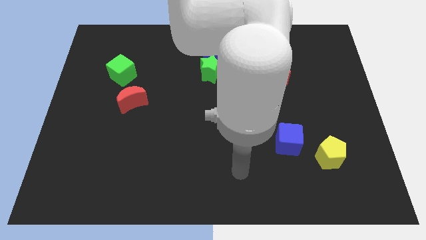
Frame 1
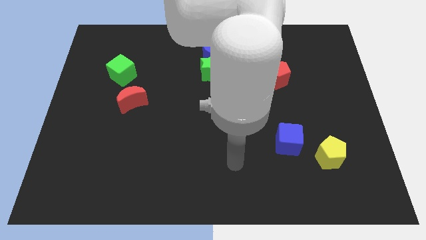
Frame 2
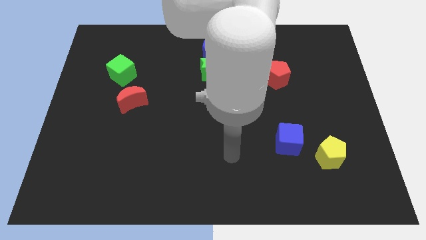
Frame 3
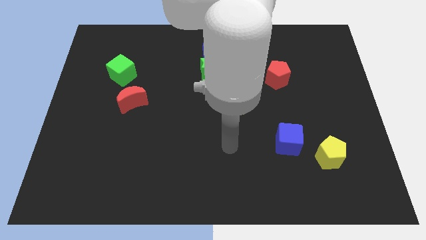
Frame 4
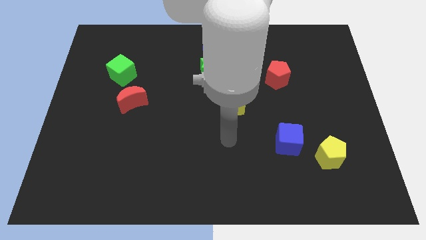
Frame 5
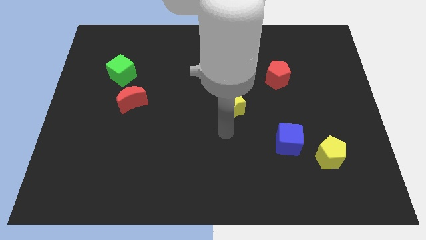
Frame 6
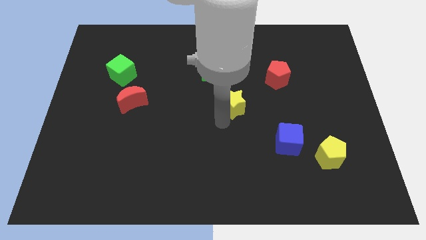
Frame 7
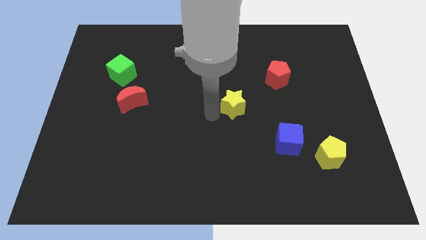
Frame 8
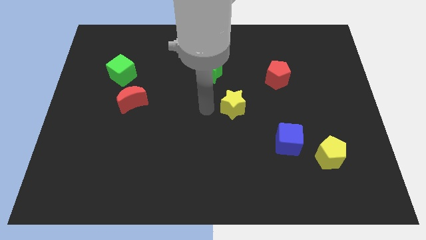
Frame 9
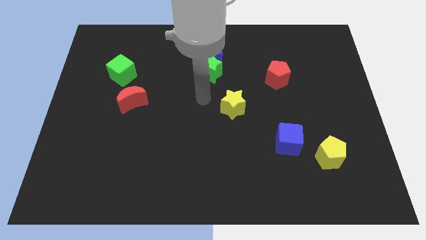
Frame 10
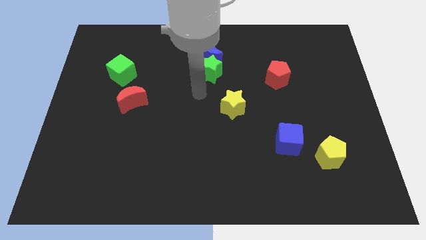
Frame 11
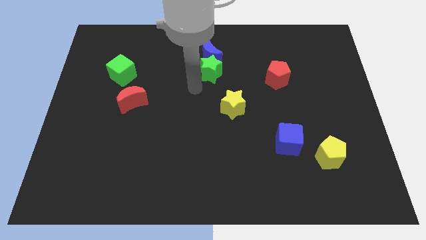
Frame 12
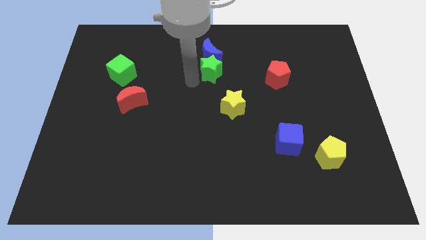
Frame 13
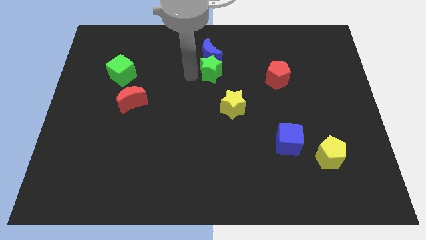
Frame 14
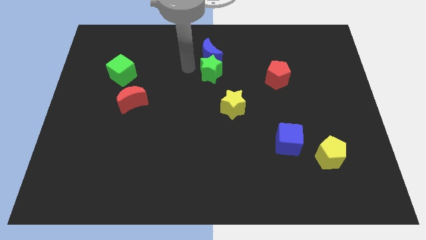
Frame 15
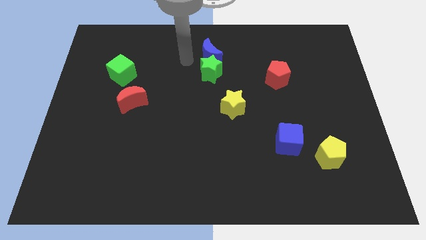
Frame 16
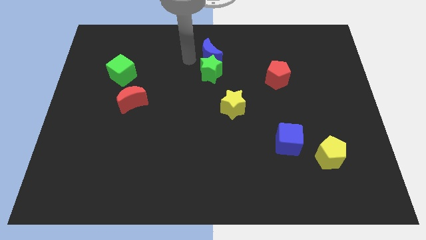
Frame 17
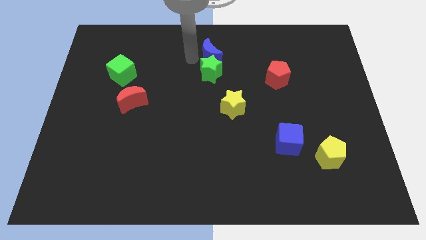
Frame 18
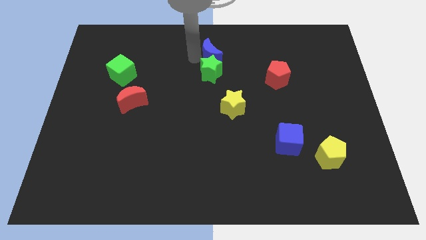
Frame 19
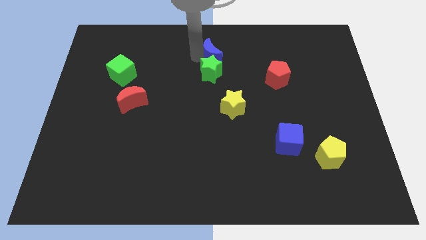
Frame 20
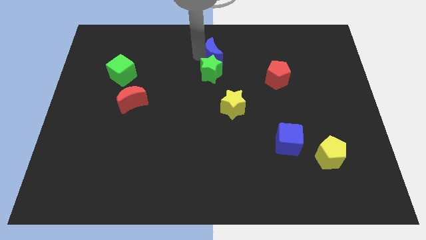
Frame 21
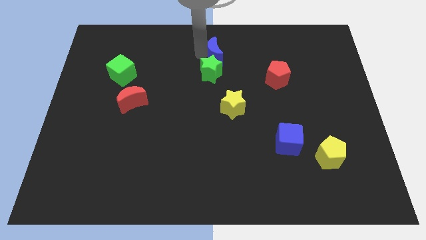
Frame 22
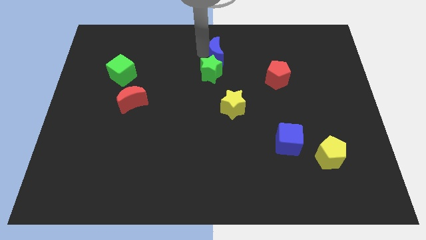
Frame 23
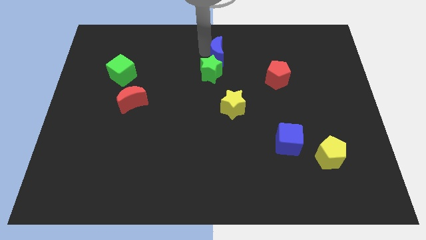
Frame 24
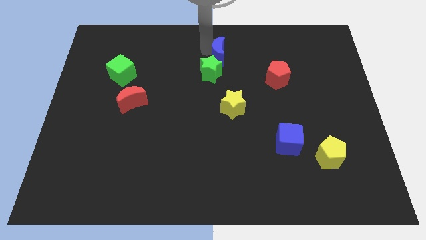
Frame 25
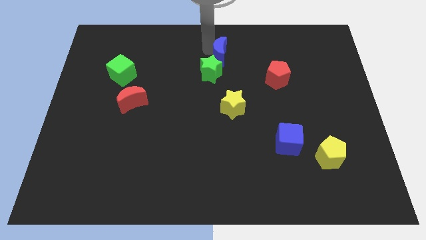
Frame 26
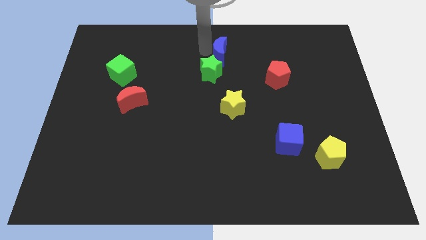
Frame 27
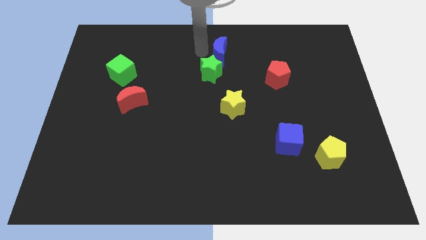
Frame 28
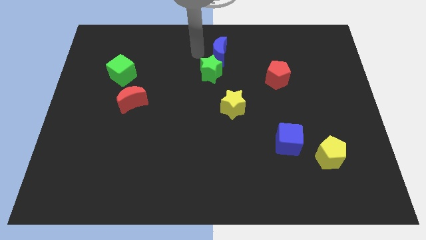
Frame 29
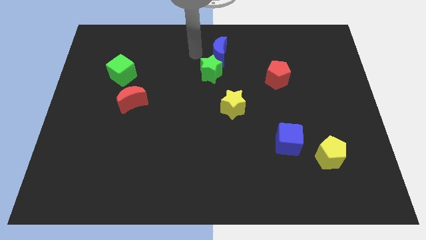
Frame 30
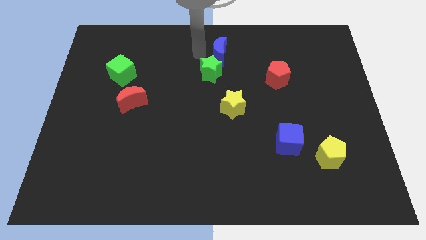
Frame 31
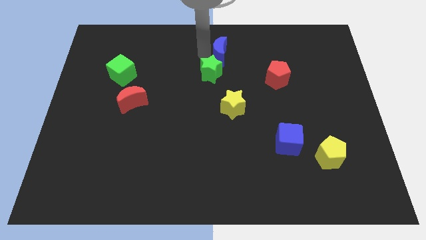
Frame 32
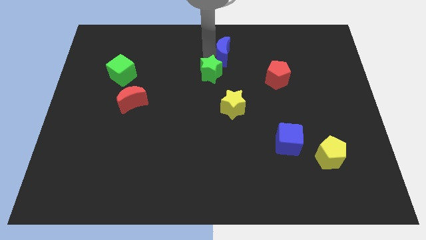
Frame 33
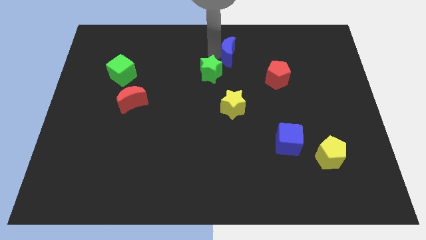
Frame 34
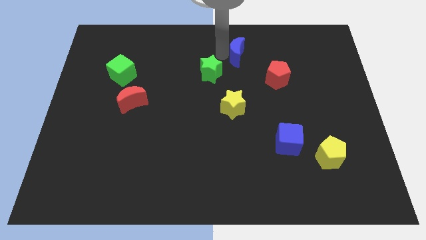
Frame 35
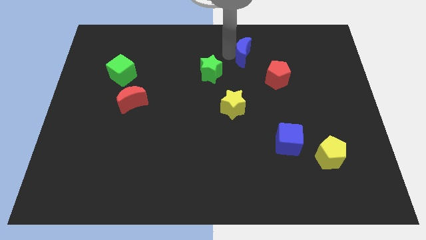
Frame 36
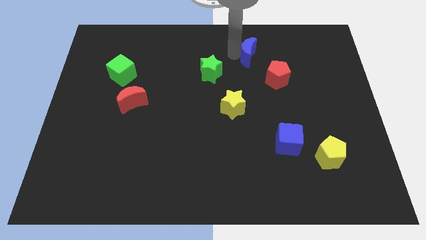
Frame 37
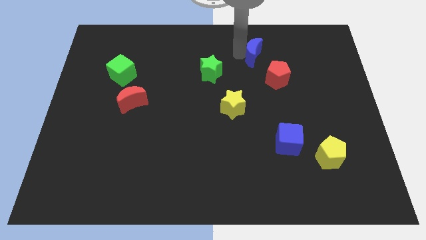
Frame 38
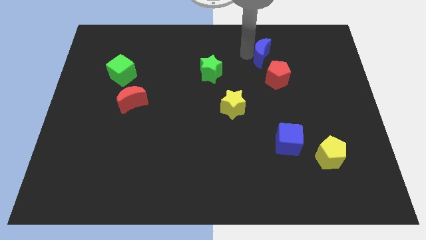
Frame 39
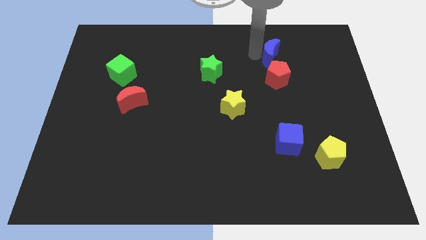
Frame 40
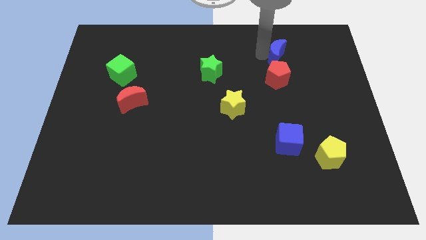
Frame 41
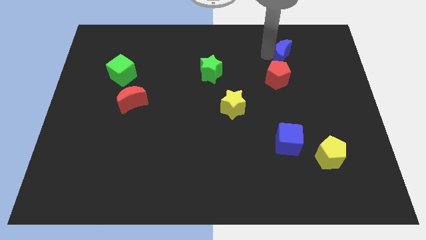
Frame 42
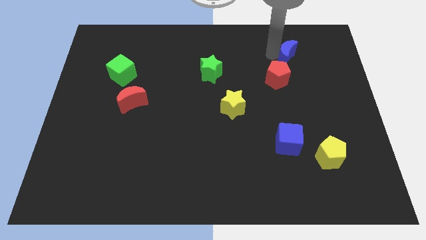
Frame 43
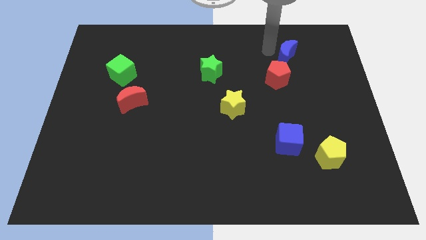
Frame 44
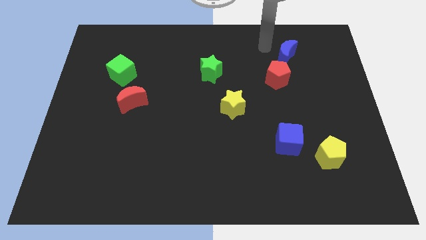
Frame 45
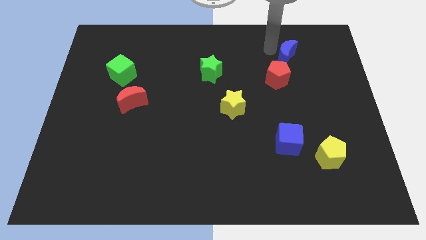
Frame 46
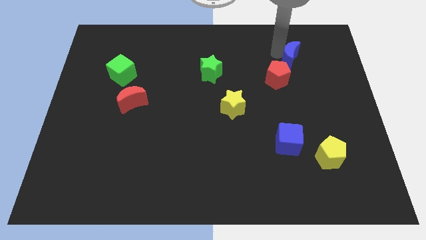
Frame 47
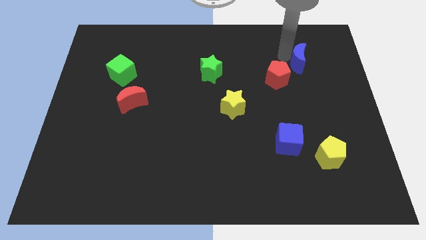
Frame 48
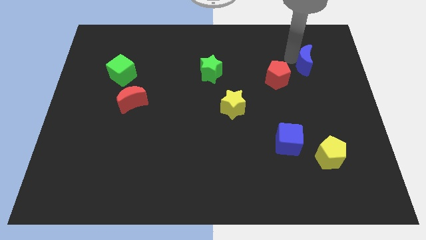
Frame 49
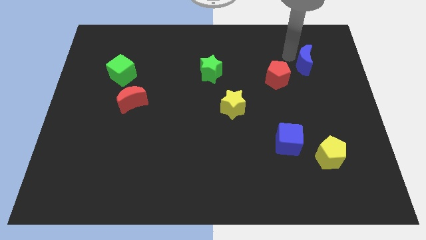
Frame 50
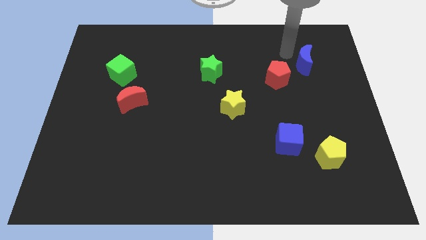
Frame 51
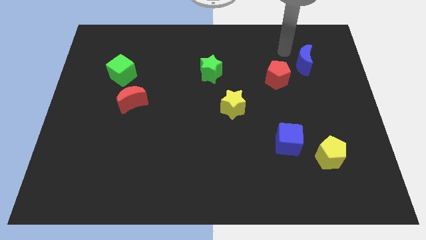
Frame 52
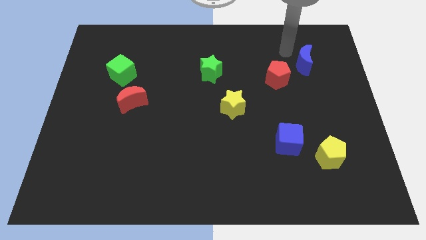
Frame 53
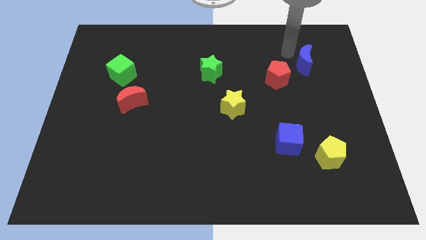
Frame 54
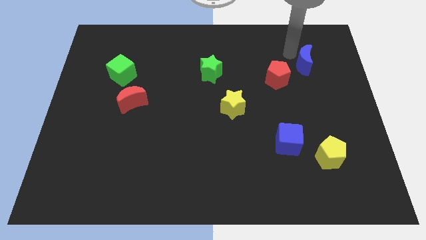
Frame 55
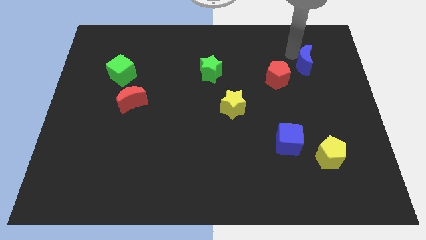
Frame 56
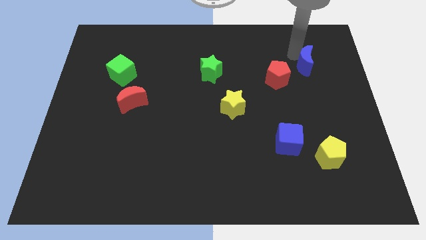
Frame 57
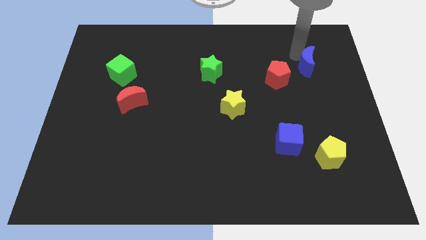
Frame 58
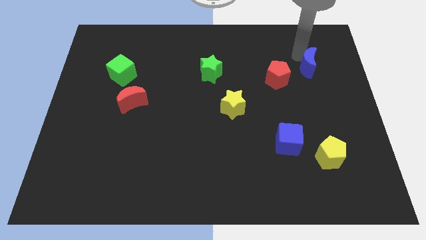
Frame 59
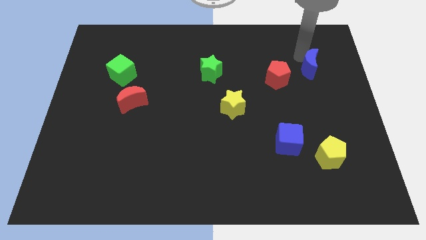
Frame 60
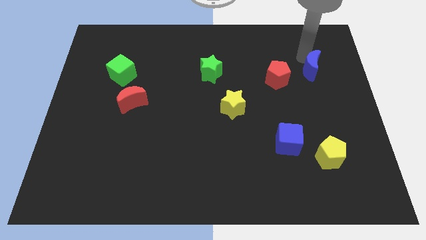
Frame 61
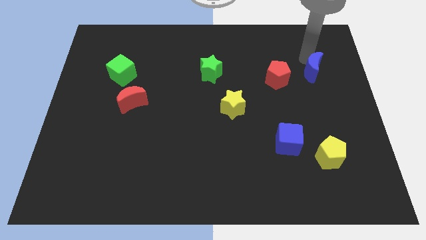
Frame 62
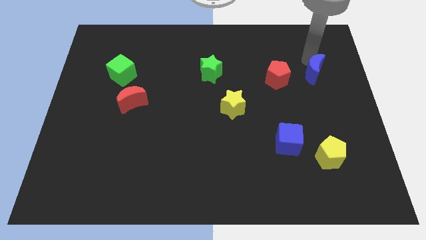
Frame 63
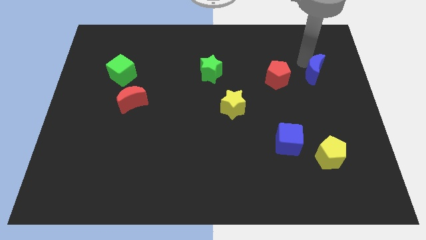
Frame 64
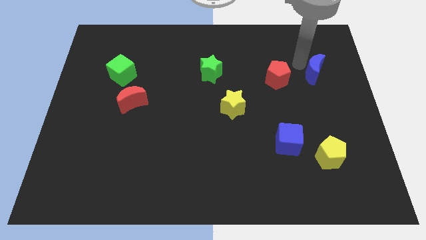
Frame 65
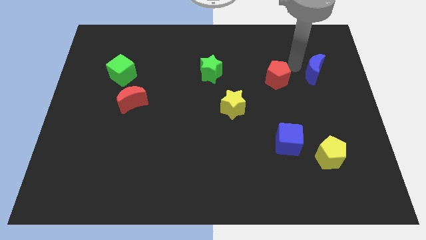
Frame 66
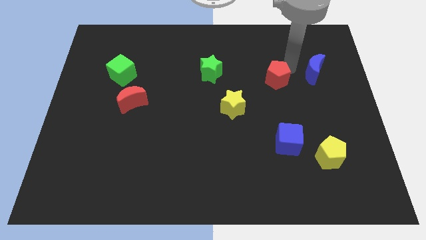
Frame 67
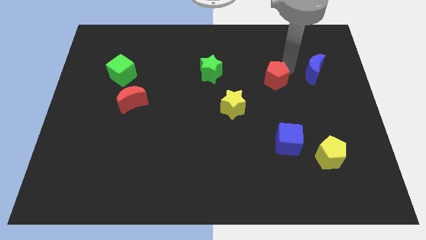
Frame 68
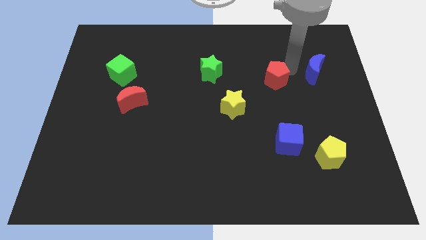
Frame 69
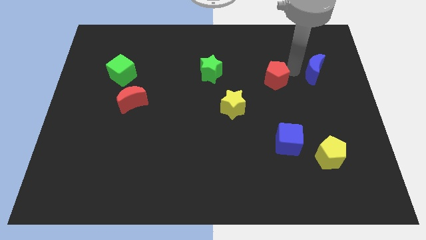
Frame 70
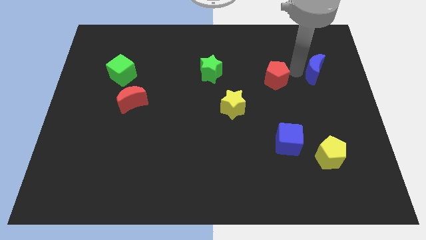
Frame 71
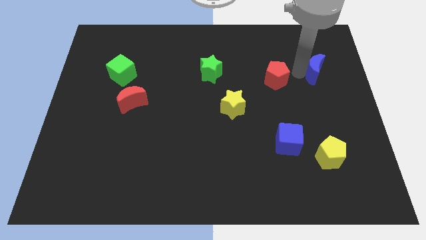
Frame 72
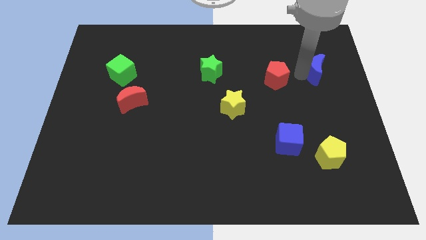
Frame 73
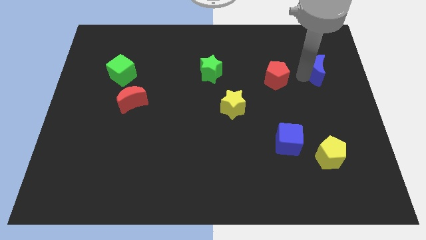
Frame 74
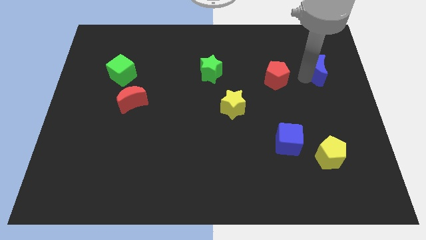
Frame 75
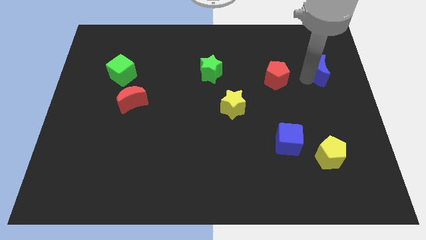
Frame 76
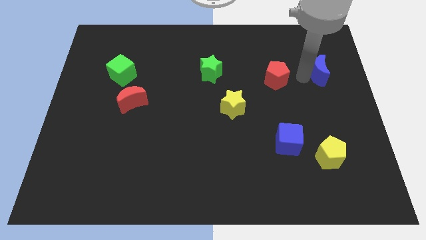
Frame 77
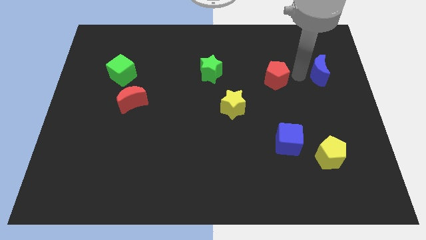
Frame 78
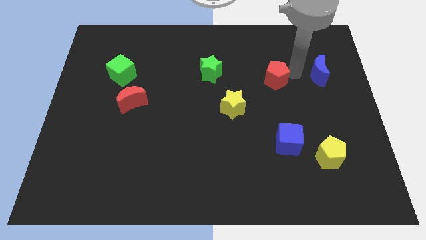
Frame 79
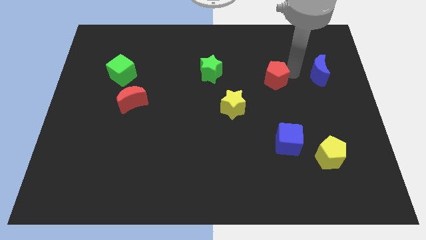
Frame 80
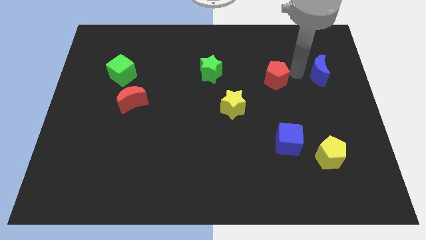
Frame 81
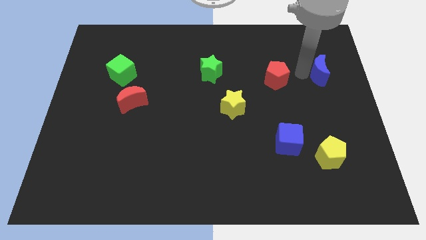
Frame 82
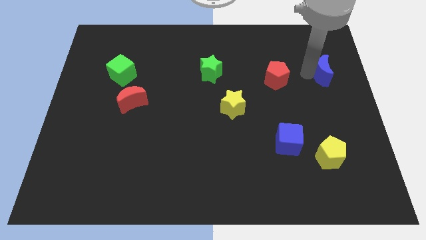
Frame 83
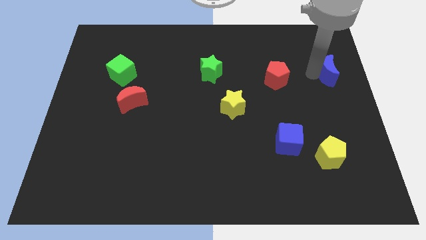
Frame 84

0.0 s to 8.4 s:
move the blue moon to the right side
